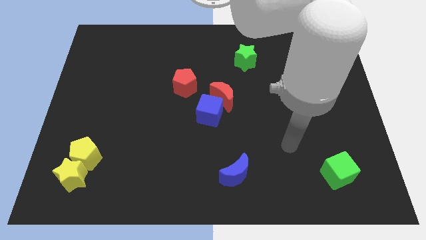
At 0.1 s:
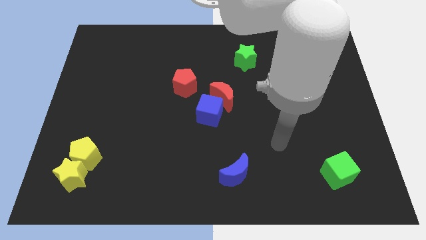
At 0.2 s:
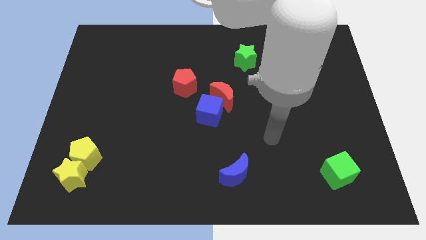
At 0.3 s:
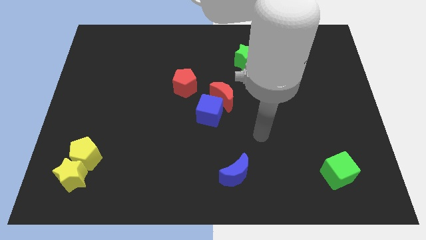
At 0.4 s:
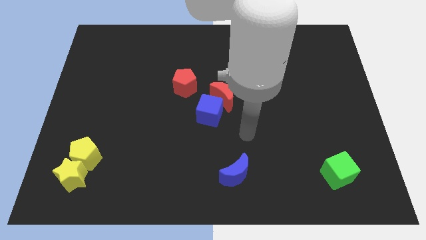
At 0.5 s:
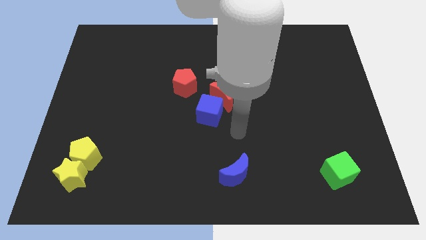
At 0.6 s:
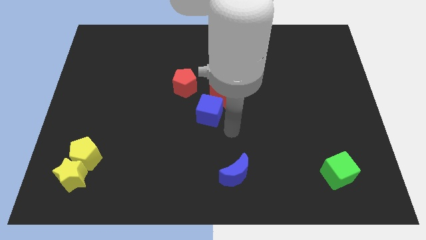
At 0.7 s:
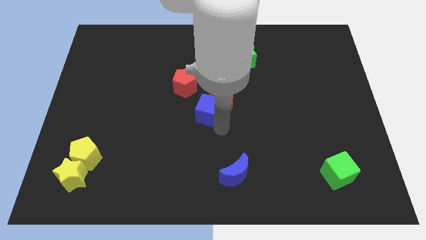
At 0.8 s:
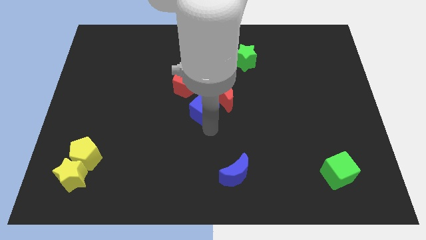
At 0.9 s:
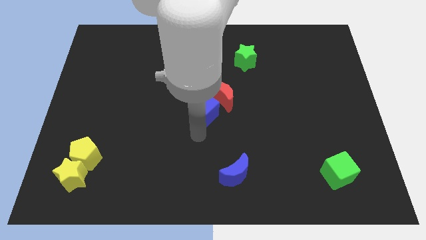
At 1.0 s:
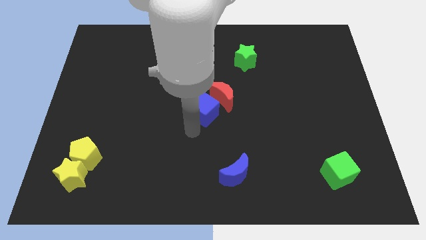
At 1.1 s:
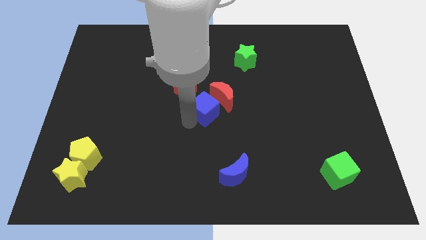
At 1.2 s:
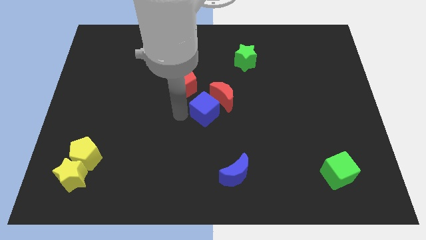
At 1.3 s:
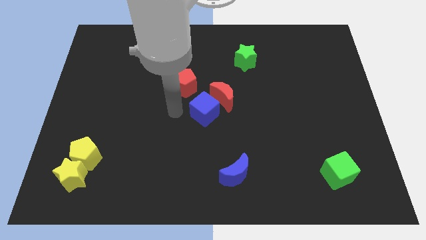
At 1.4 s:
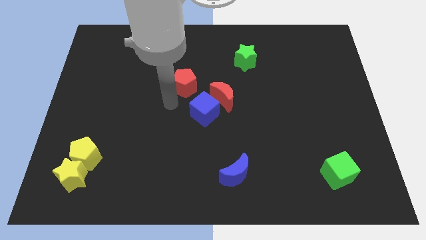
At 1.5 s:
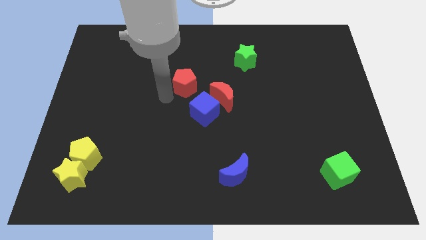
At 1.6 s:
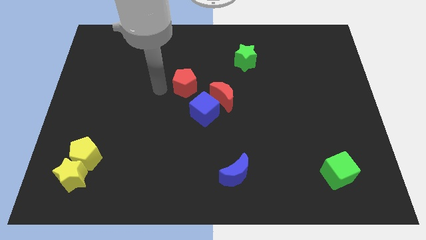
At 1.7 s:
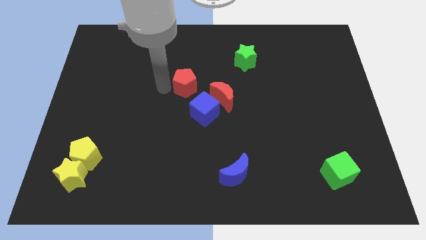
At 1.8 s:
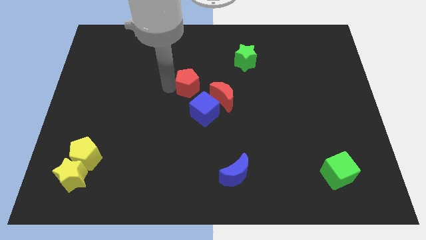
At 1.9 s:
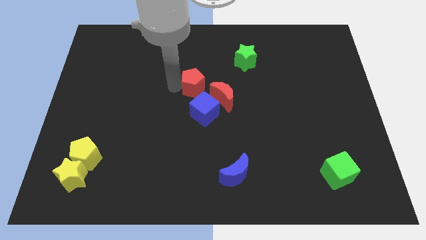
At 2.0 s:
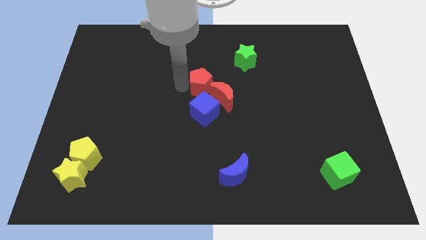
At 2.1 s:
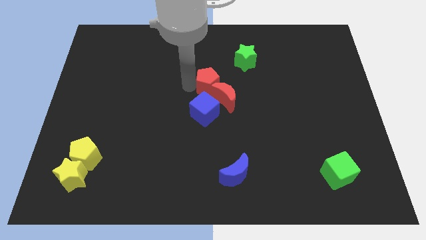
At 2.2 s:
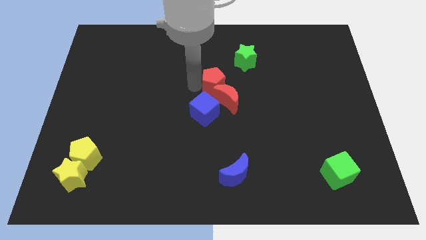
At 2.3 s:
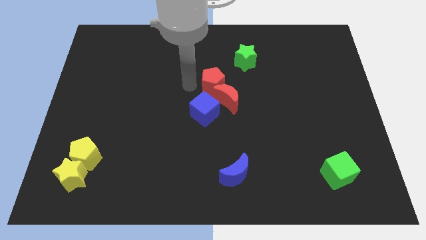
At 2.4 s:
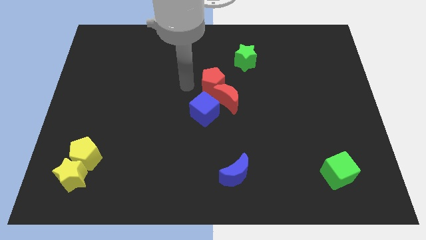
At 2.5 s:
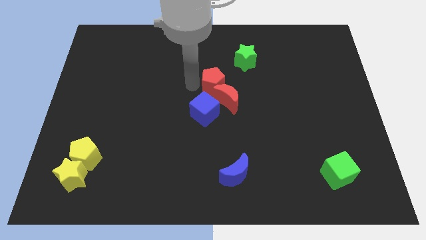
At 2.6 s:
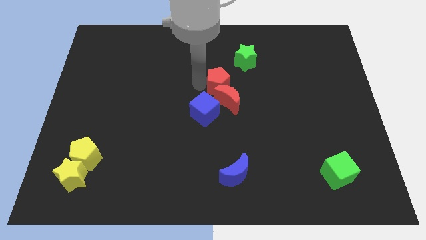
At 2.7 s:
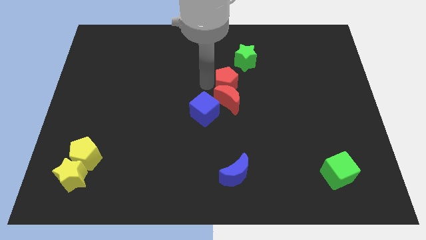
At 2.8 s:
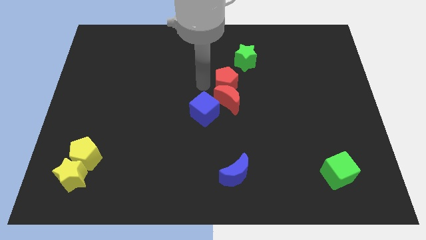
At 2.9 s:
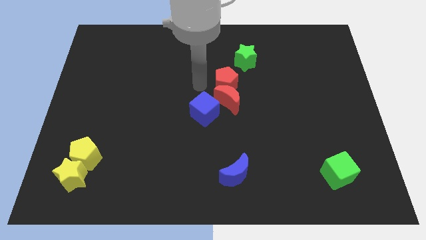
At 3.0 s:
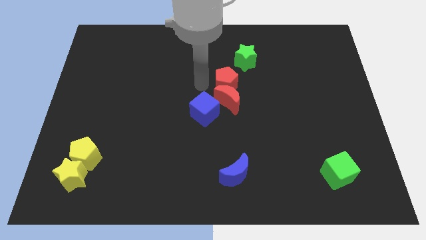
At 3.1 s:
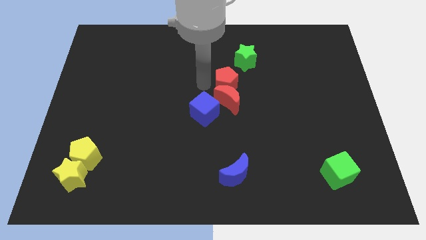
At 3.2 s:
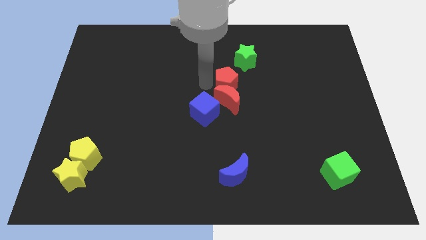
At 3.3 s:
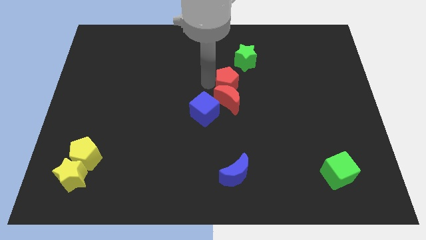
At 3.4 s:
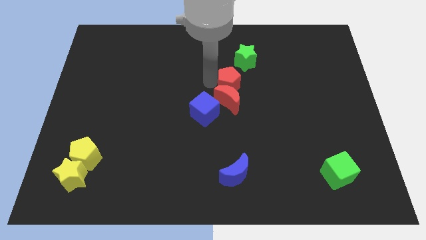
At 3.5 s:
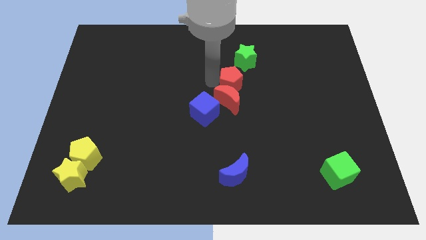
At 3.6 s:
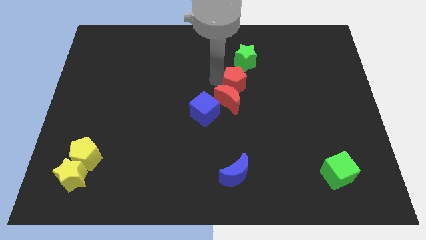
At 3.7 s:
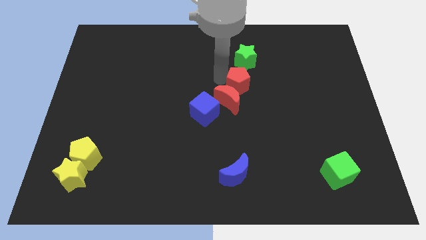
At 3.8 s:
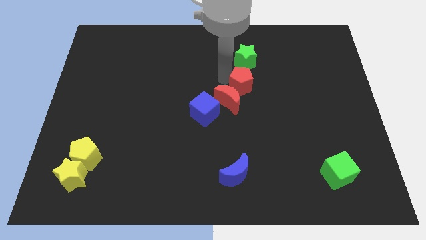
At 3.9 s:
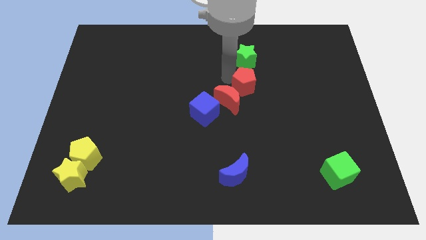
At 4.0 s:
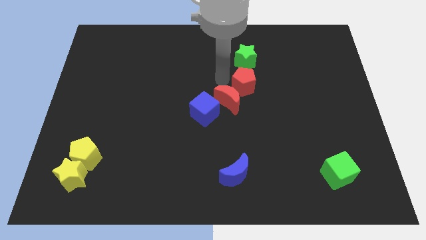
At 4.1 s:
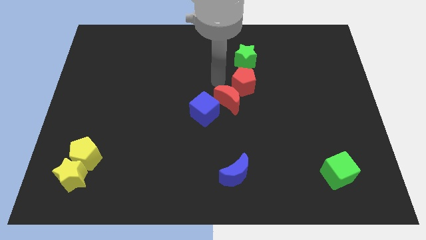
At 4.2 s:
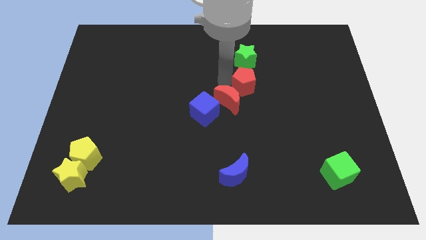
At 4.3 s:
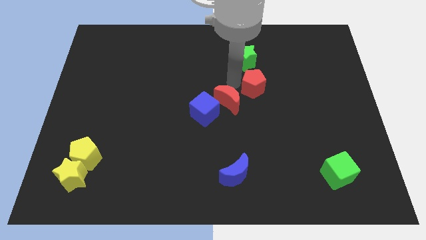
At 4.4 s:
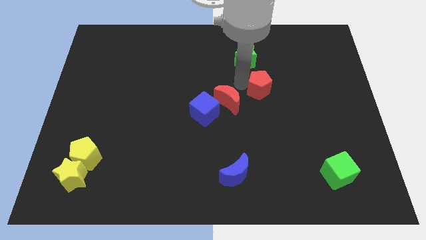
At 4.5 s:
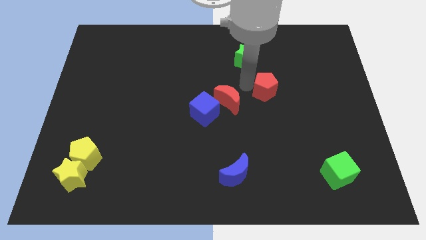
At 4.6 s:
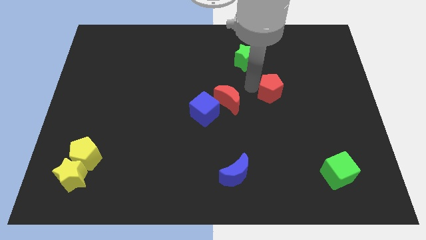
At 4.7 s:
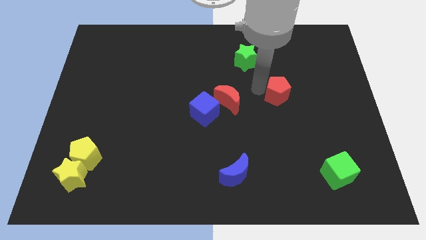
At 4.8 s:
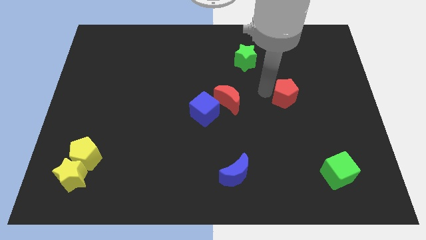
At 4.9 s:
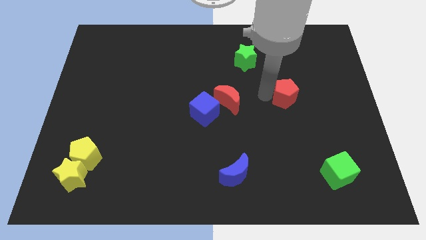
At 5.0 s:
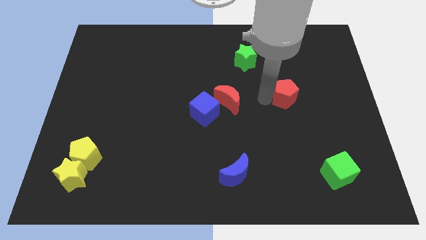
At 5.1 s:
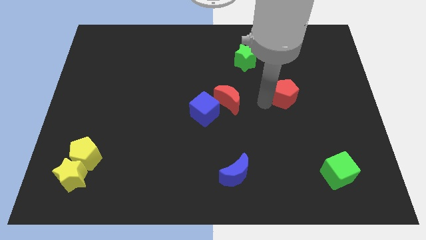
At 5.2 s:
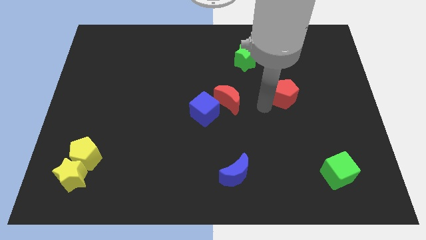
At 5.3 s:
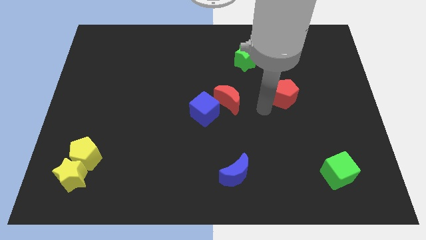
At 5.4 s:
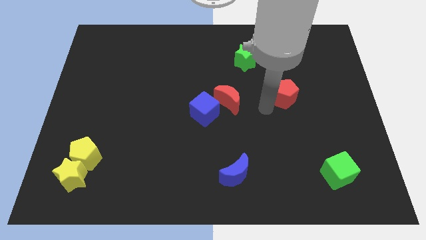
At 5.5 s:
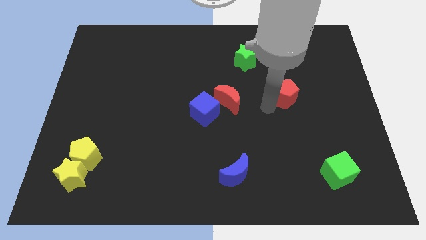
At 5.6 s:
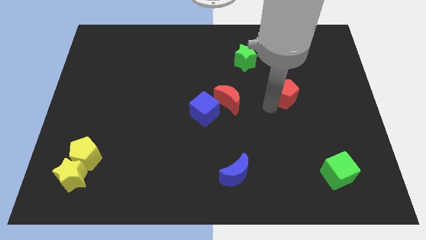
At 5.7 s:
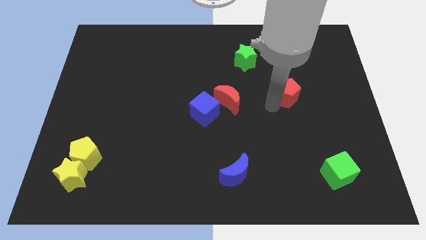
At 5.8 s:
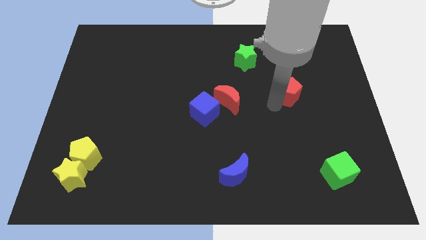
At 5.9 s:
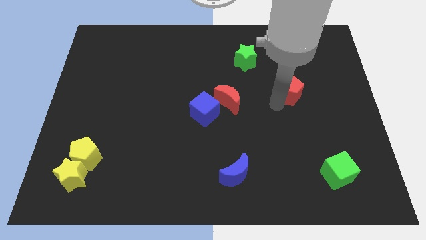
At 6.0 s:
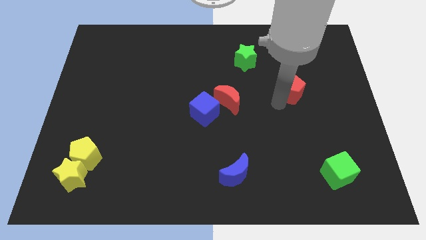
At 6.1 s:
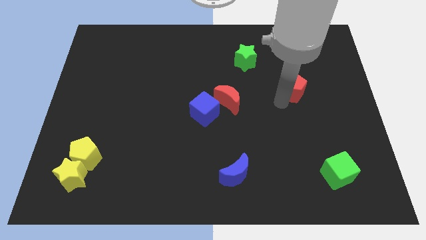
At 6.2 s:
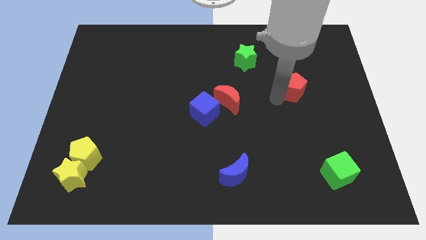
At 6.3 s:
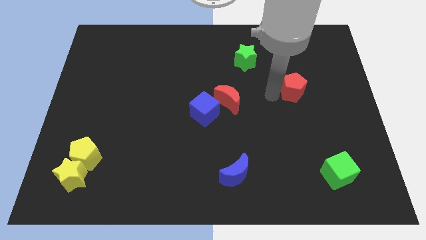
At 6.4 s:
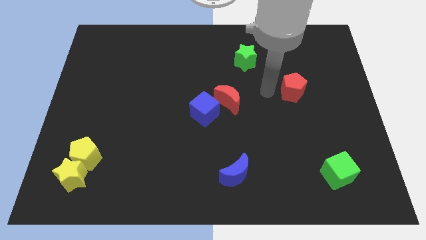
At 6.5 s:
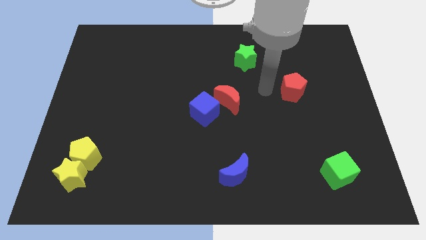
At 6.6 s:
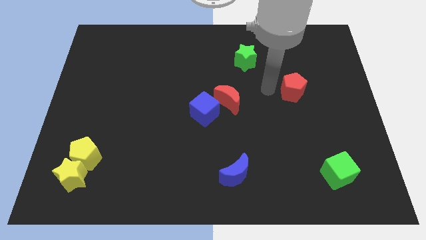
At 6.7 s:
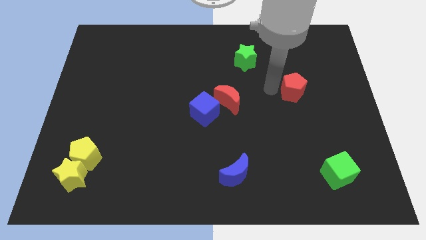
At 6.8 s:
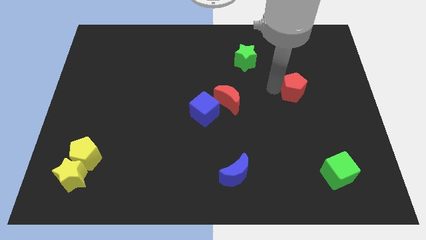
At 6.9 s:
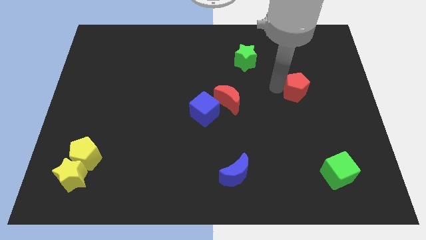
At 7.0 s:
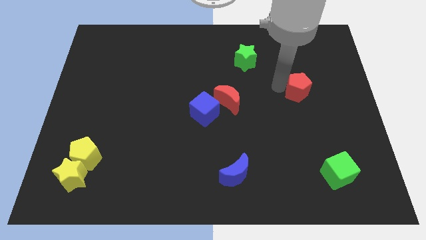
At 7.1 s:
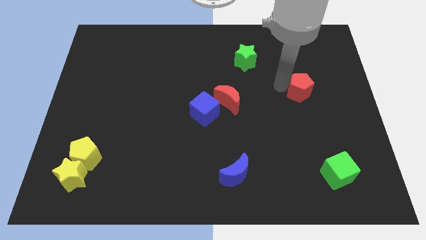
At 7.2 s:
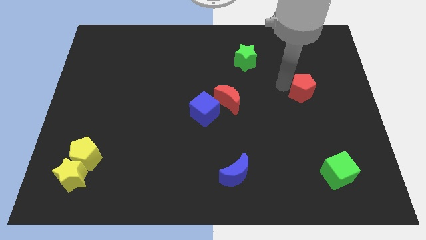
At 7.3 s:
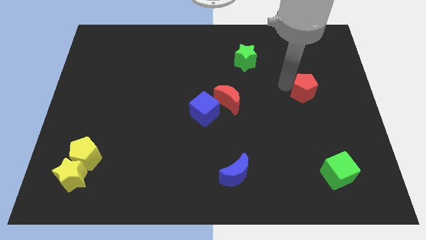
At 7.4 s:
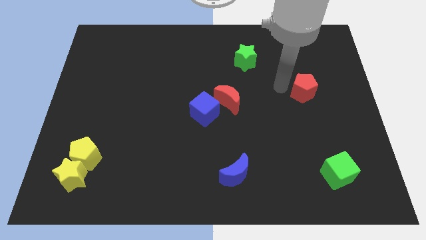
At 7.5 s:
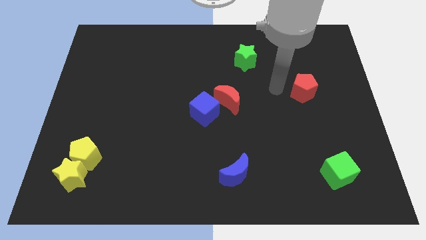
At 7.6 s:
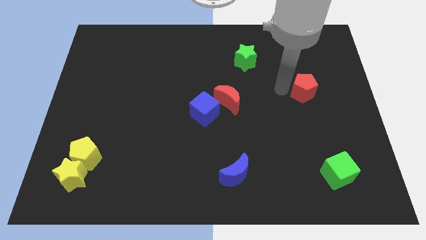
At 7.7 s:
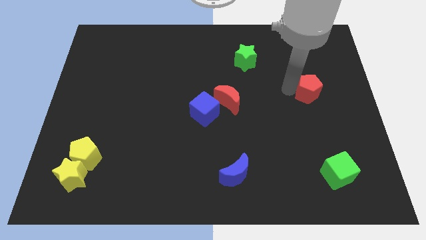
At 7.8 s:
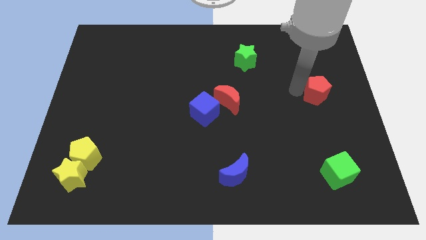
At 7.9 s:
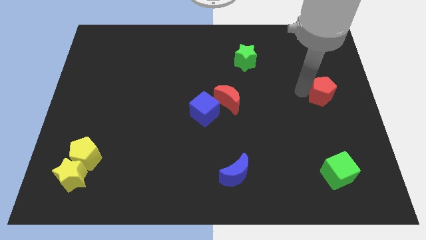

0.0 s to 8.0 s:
put the red pentagon to the right side of the board
